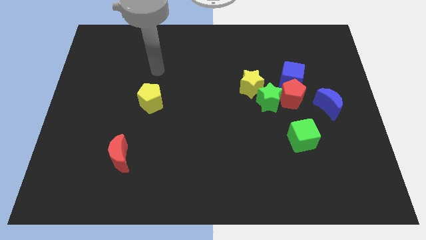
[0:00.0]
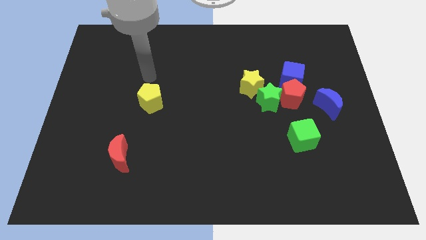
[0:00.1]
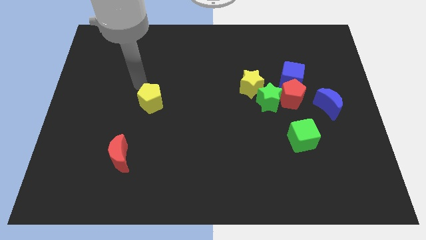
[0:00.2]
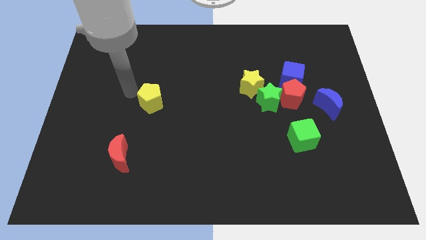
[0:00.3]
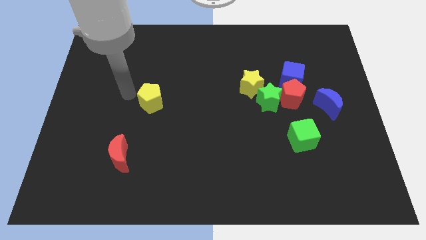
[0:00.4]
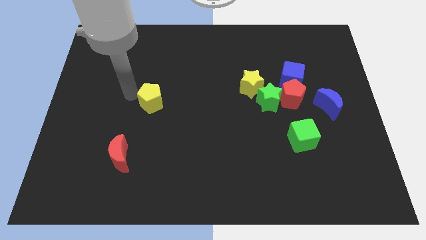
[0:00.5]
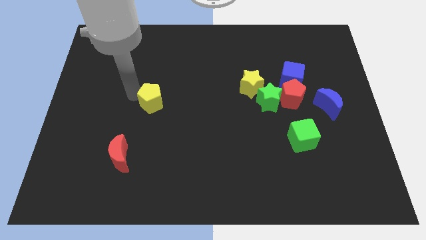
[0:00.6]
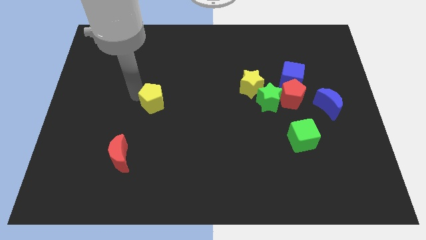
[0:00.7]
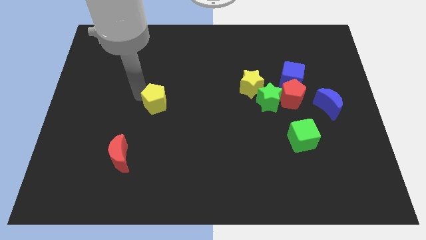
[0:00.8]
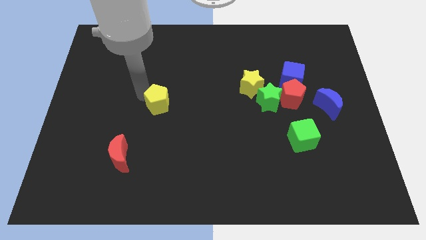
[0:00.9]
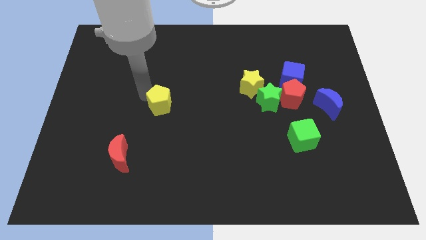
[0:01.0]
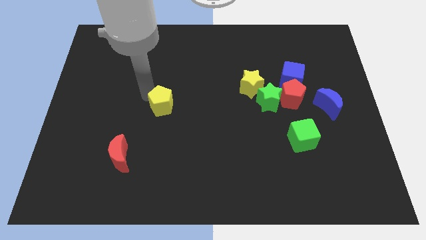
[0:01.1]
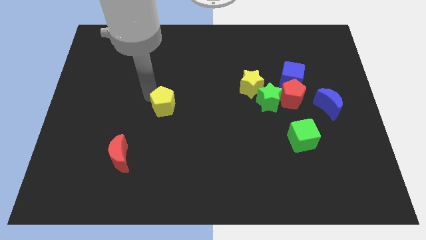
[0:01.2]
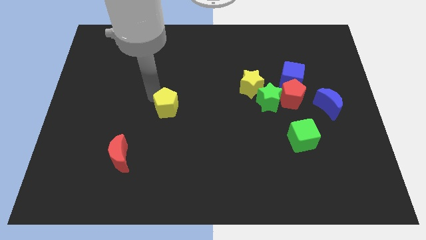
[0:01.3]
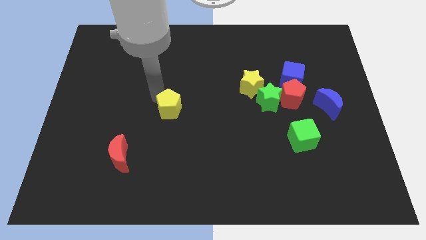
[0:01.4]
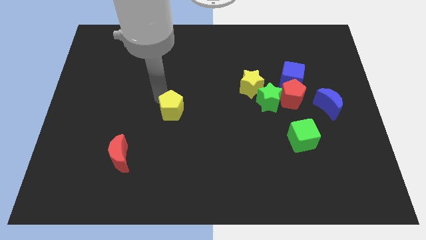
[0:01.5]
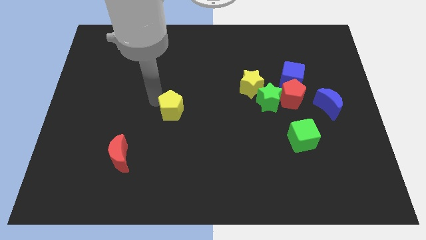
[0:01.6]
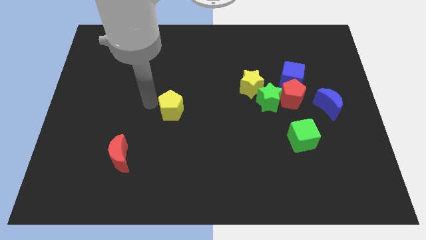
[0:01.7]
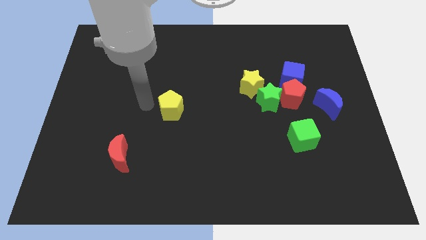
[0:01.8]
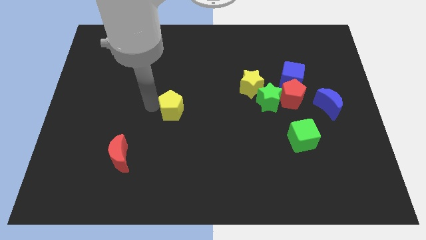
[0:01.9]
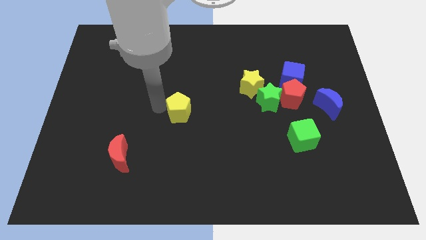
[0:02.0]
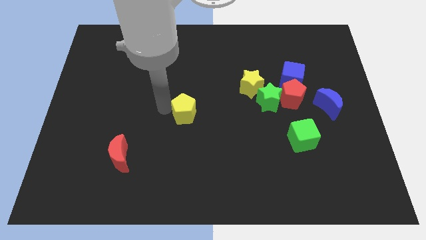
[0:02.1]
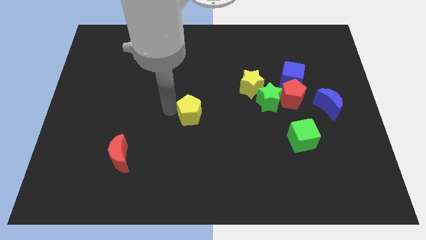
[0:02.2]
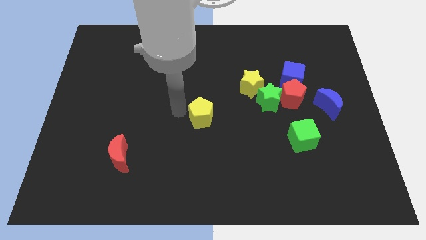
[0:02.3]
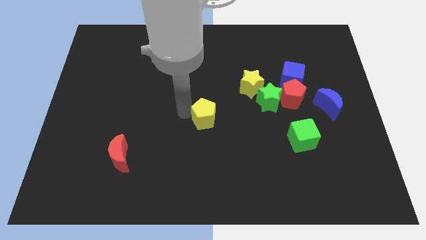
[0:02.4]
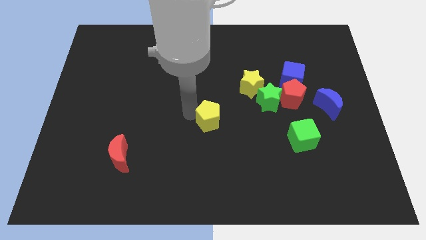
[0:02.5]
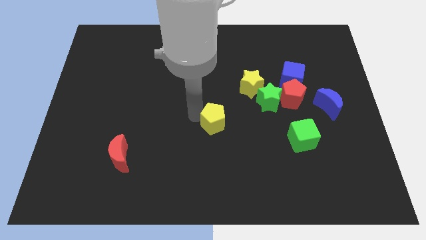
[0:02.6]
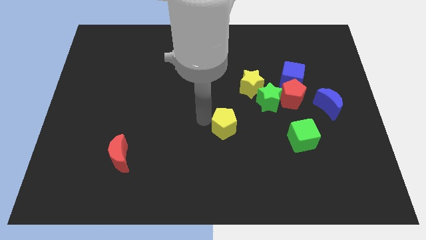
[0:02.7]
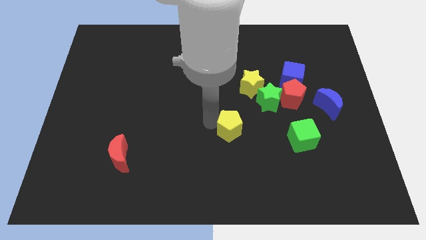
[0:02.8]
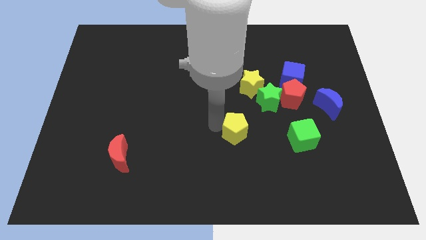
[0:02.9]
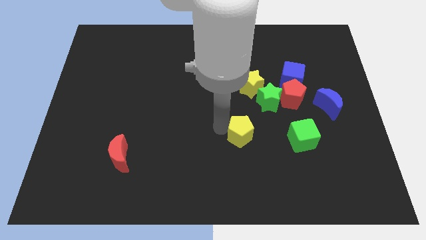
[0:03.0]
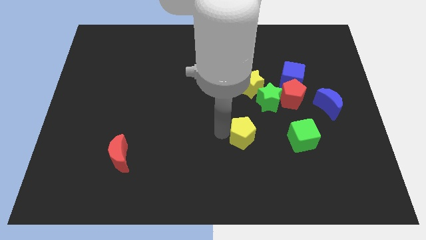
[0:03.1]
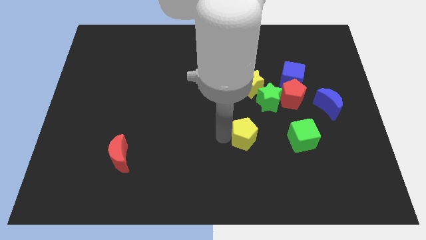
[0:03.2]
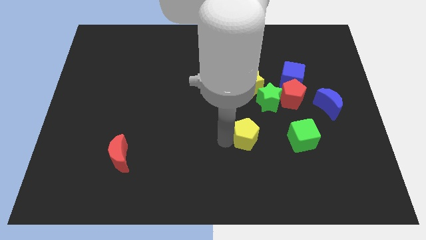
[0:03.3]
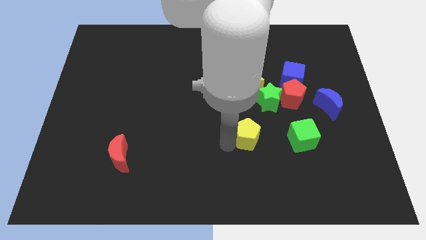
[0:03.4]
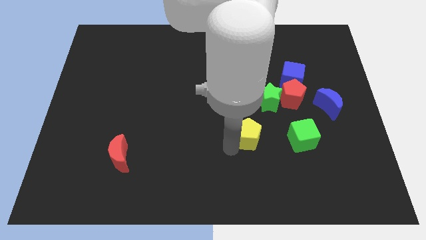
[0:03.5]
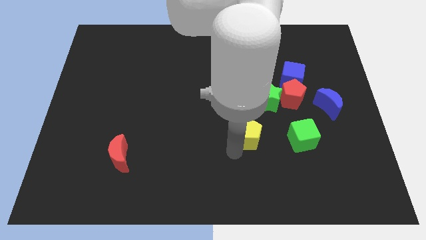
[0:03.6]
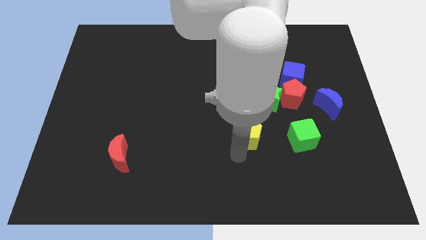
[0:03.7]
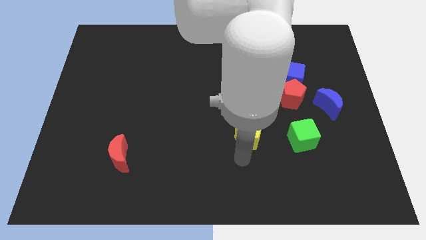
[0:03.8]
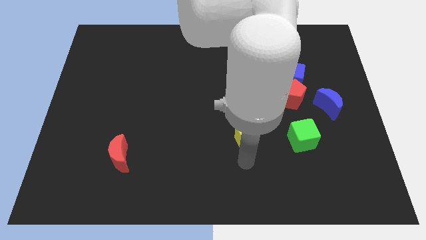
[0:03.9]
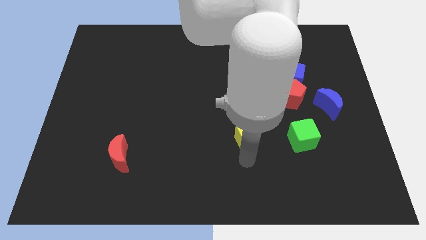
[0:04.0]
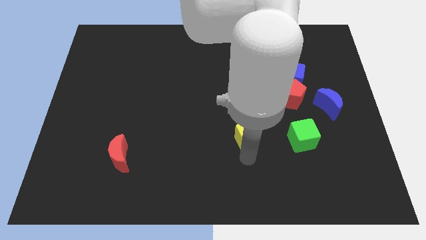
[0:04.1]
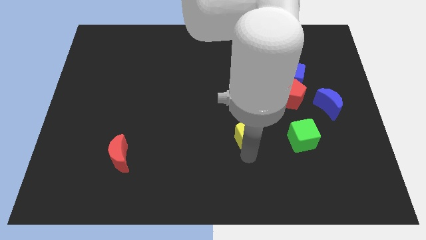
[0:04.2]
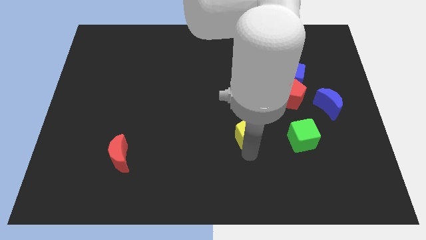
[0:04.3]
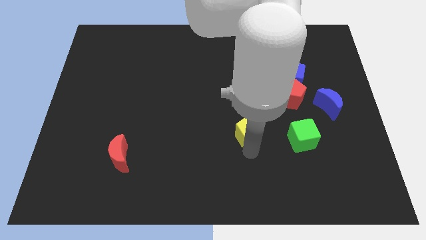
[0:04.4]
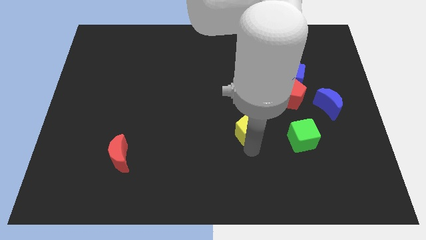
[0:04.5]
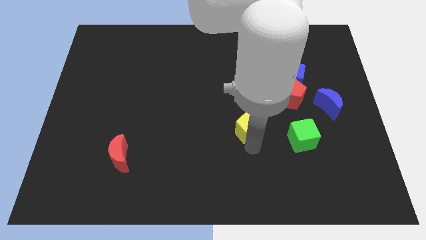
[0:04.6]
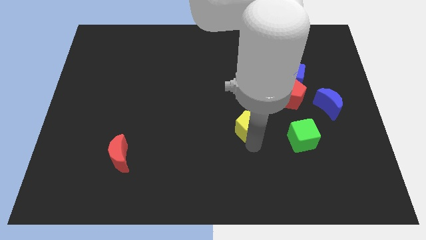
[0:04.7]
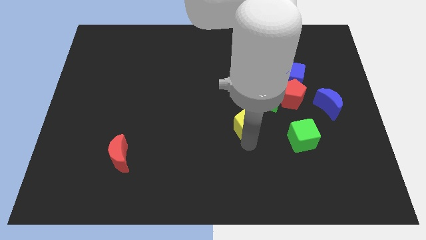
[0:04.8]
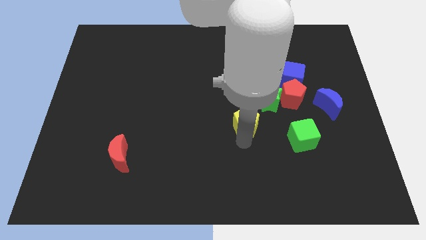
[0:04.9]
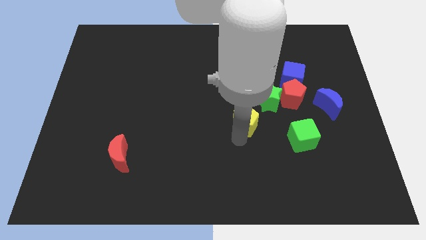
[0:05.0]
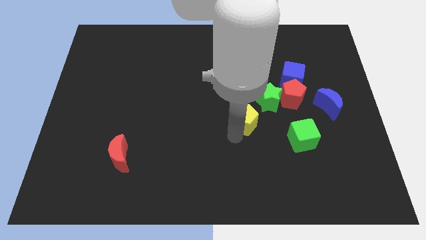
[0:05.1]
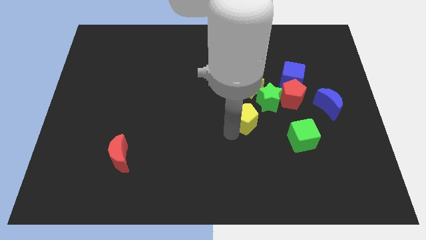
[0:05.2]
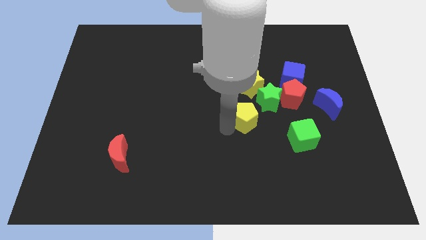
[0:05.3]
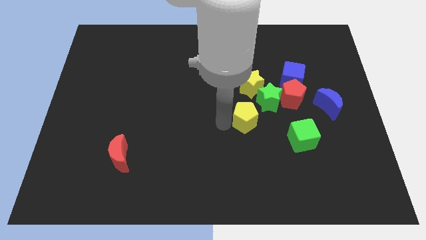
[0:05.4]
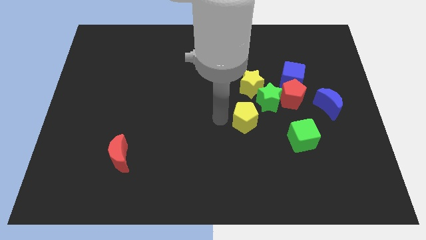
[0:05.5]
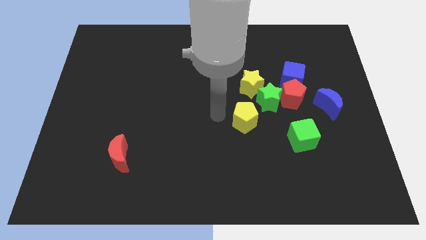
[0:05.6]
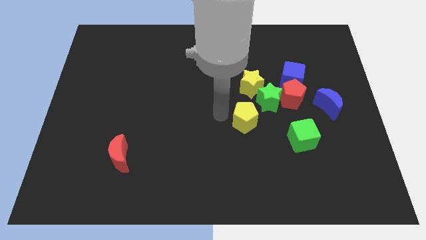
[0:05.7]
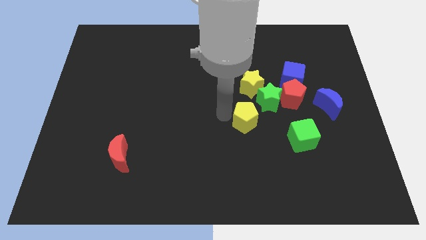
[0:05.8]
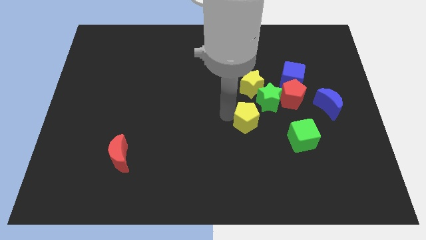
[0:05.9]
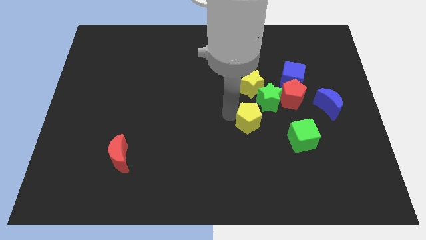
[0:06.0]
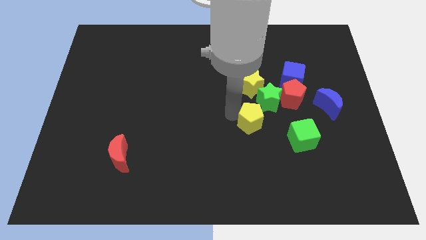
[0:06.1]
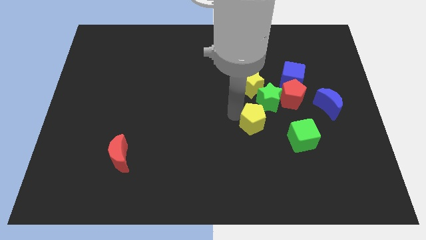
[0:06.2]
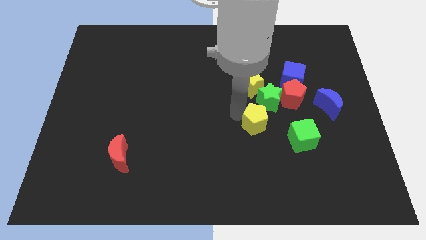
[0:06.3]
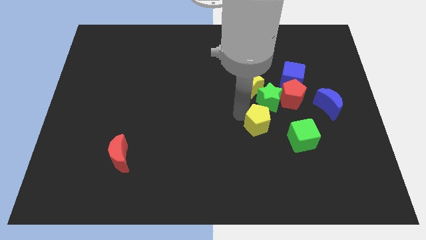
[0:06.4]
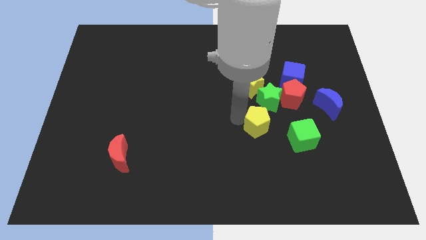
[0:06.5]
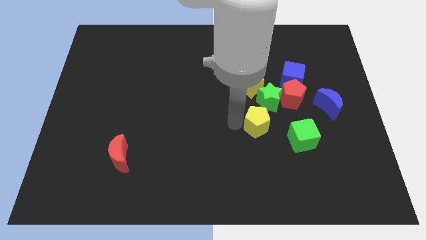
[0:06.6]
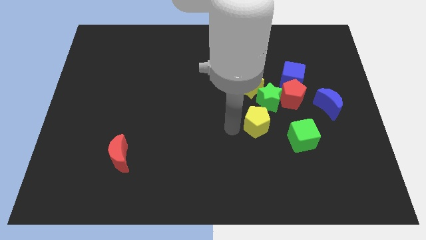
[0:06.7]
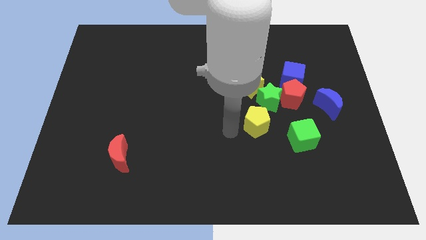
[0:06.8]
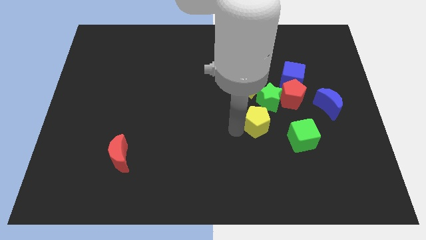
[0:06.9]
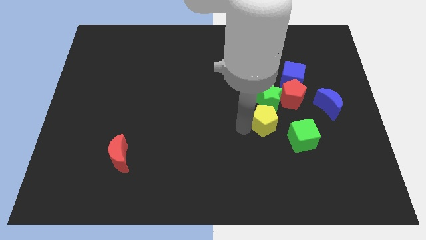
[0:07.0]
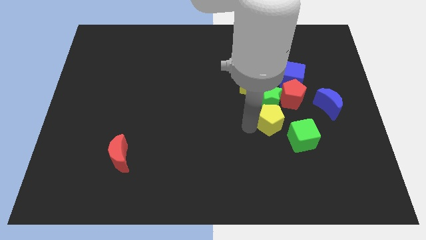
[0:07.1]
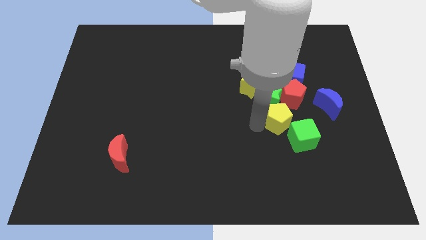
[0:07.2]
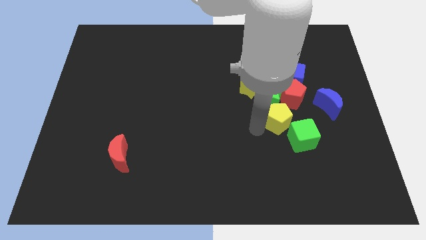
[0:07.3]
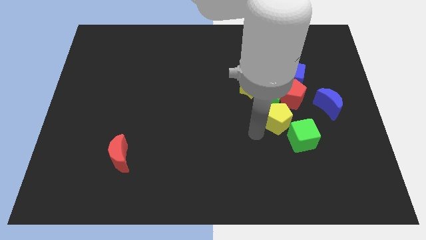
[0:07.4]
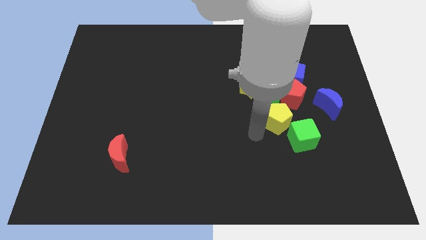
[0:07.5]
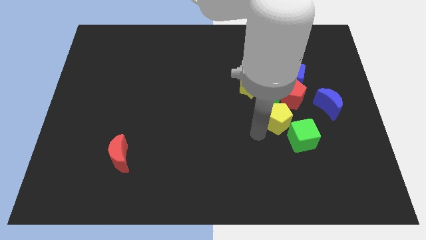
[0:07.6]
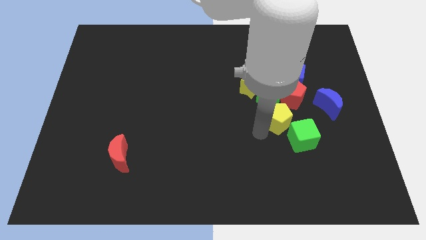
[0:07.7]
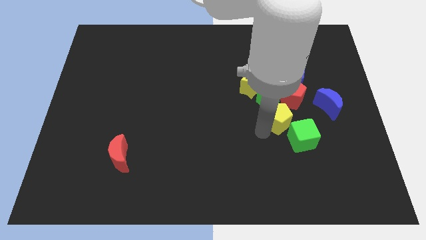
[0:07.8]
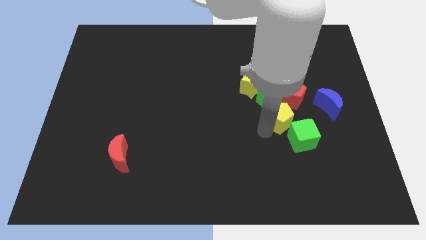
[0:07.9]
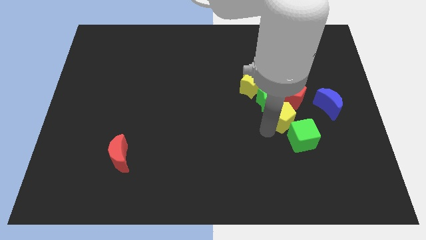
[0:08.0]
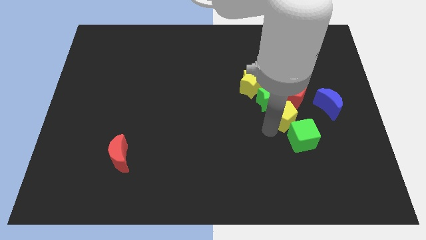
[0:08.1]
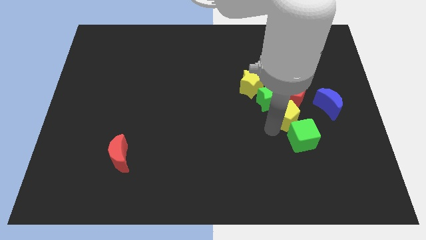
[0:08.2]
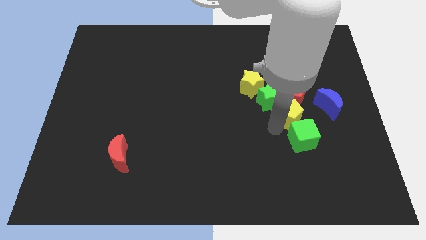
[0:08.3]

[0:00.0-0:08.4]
move the yellow pentagon diagonally down and to the left of the blue moon

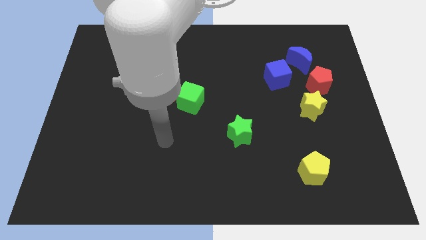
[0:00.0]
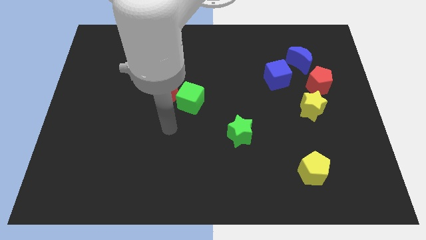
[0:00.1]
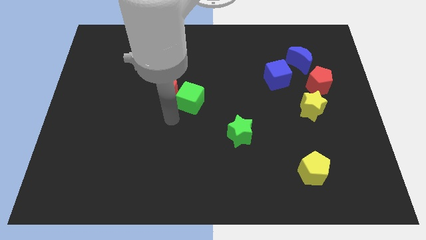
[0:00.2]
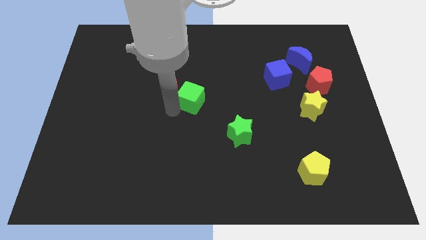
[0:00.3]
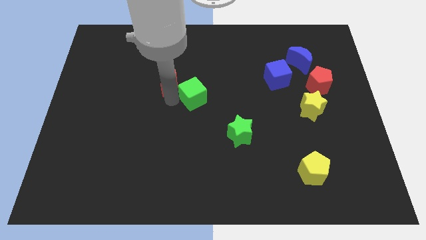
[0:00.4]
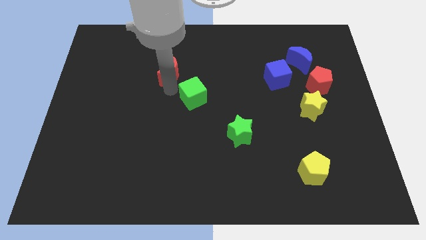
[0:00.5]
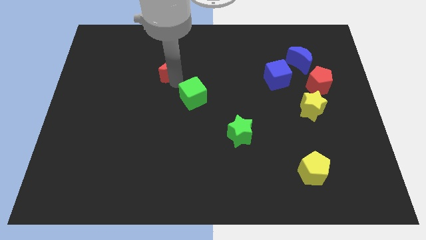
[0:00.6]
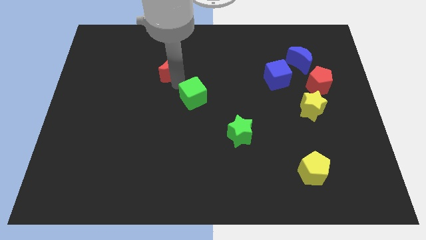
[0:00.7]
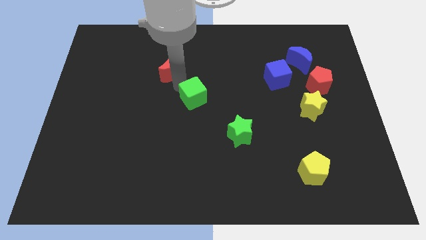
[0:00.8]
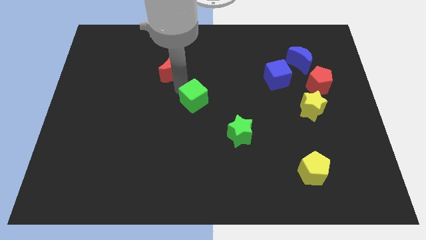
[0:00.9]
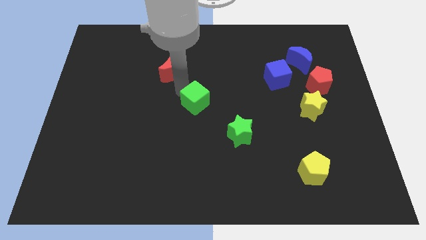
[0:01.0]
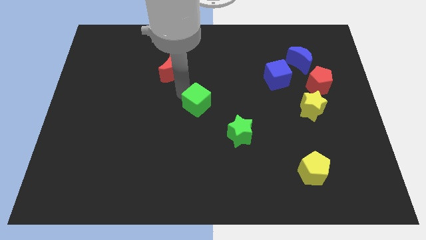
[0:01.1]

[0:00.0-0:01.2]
slide the green cube diagonally up and to the left of the green star
